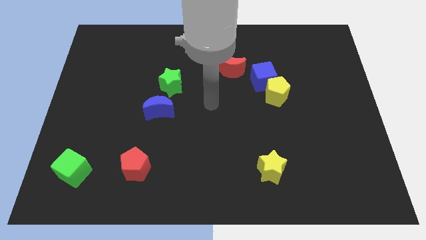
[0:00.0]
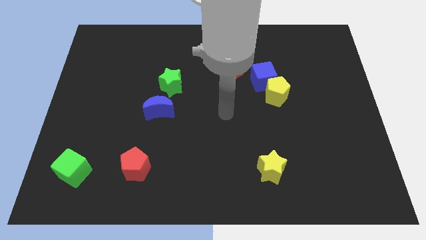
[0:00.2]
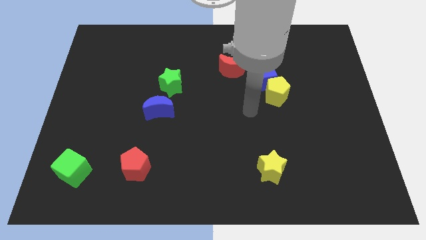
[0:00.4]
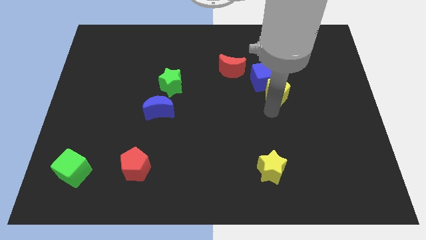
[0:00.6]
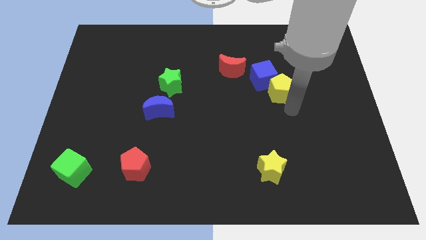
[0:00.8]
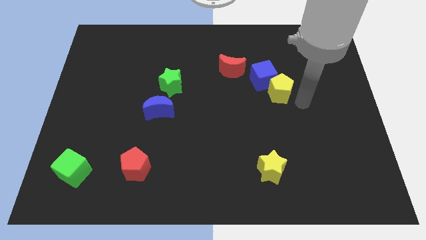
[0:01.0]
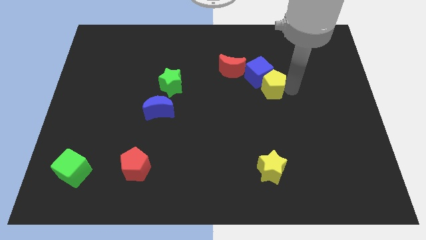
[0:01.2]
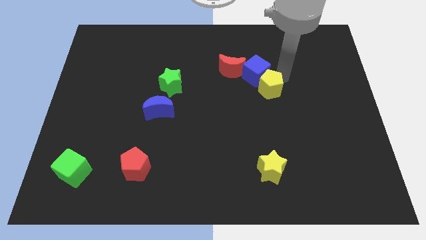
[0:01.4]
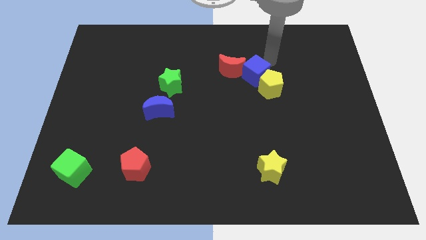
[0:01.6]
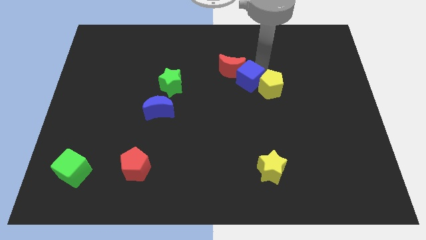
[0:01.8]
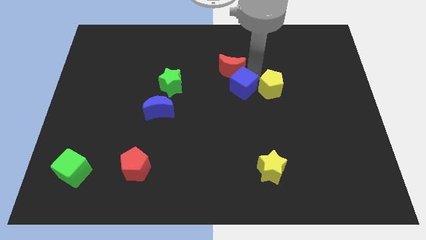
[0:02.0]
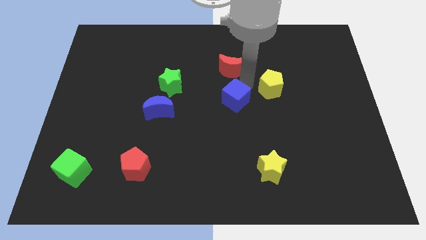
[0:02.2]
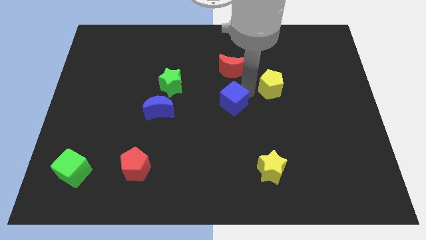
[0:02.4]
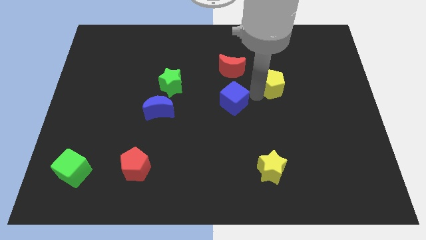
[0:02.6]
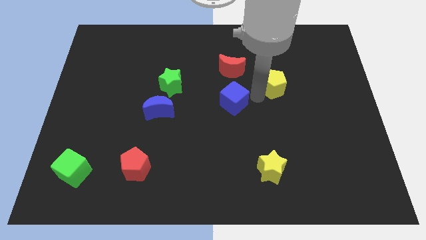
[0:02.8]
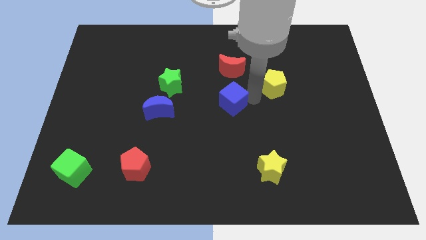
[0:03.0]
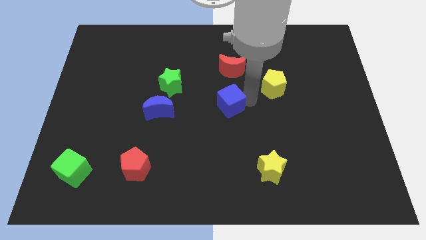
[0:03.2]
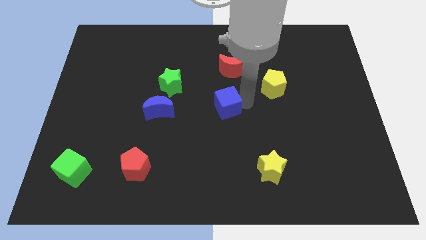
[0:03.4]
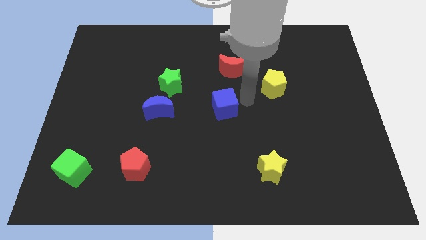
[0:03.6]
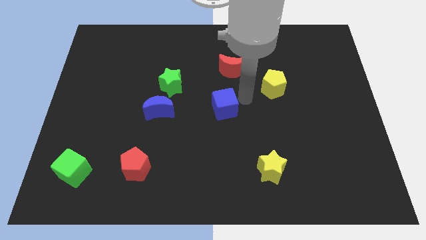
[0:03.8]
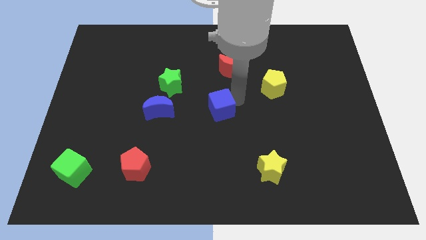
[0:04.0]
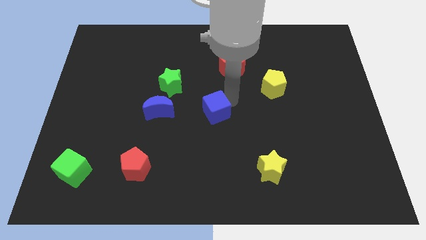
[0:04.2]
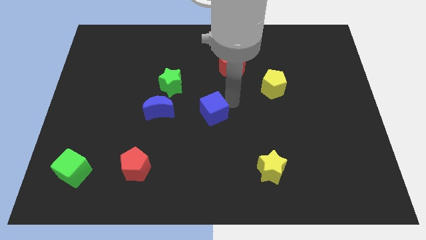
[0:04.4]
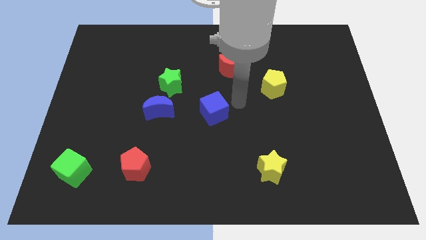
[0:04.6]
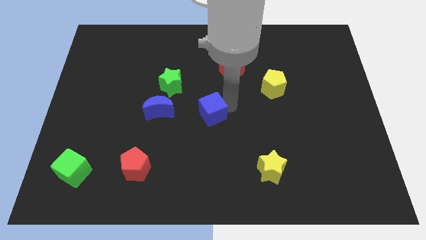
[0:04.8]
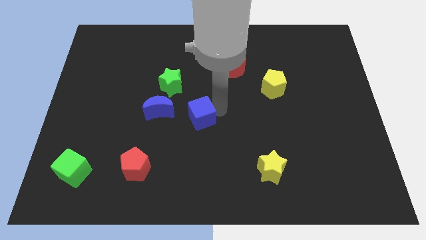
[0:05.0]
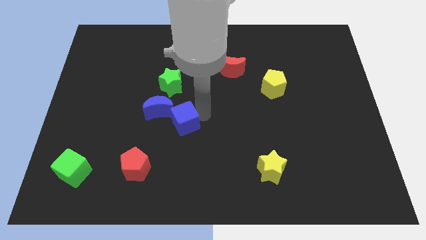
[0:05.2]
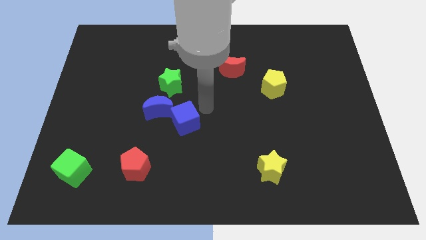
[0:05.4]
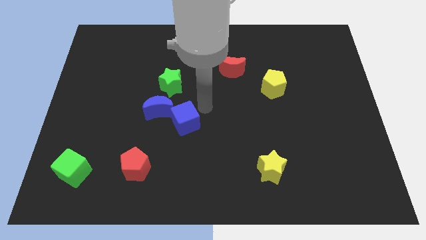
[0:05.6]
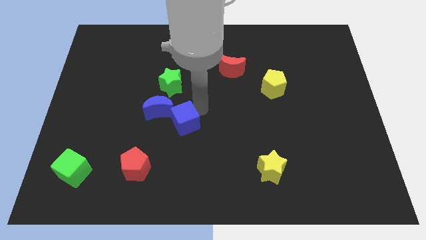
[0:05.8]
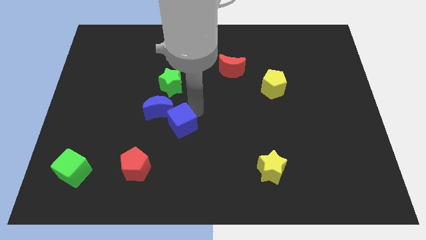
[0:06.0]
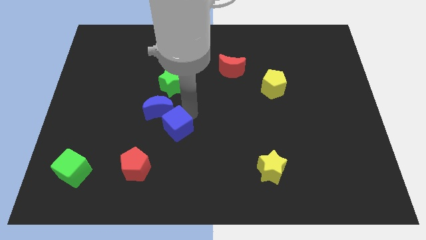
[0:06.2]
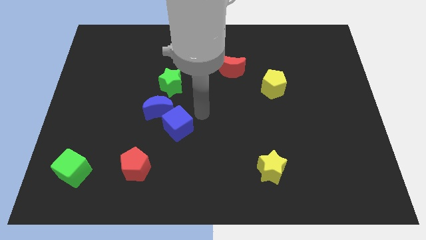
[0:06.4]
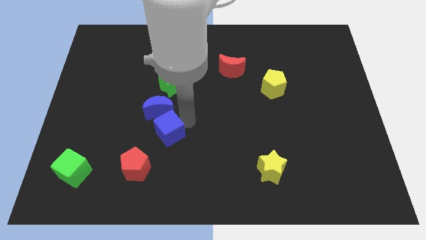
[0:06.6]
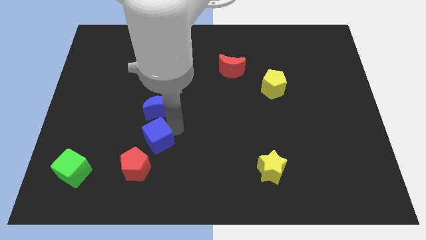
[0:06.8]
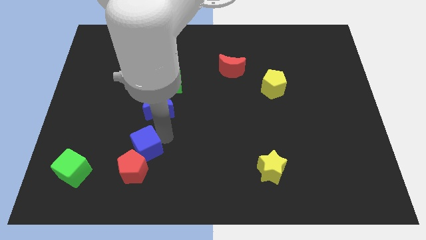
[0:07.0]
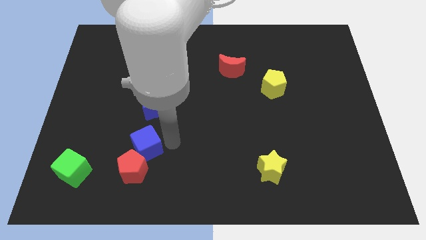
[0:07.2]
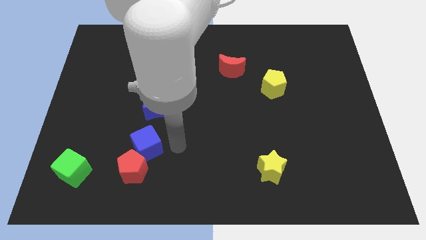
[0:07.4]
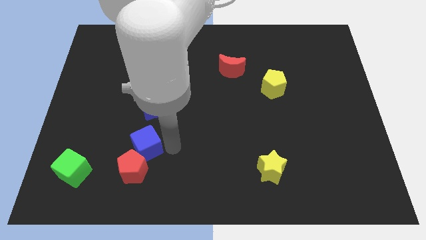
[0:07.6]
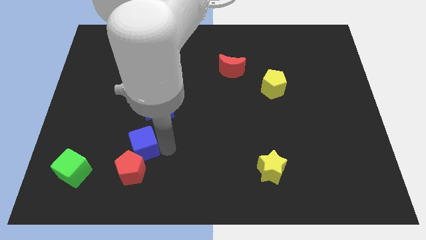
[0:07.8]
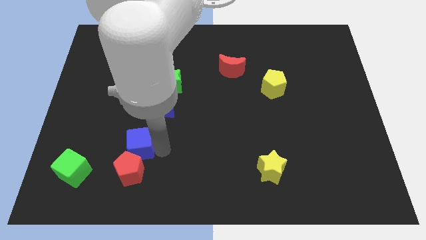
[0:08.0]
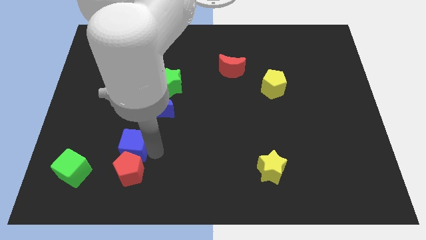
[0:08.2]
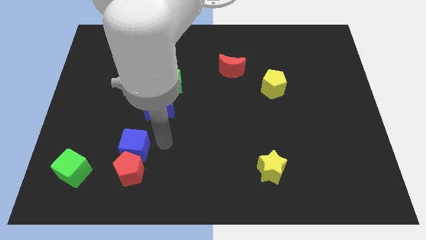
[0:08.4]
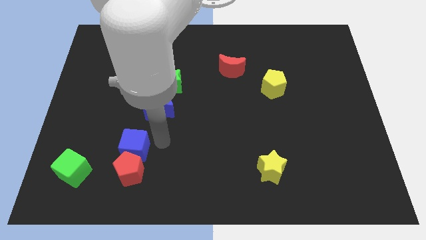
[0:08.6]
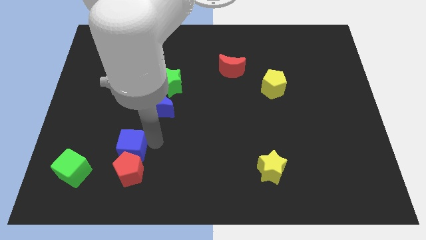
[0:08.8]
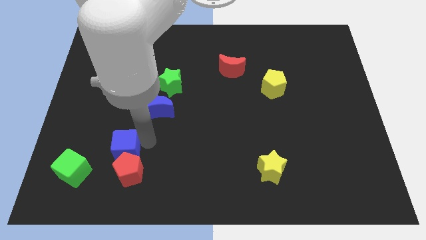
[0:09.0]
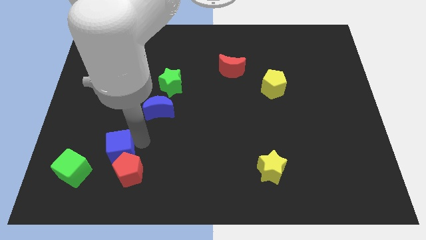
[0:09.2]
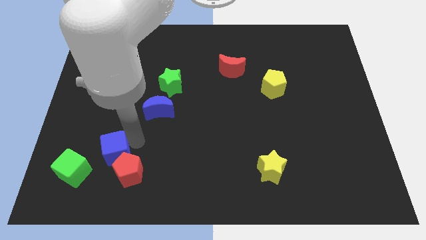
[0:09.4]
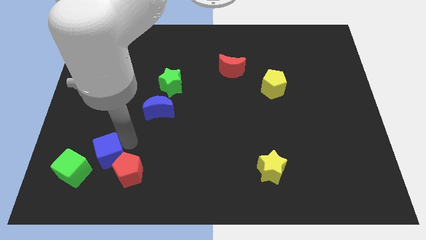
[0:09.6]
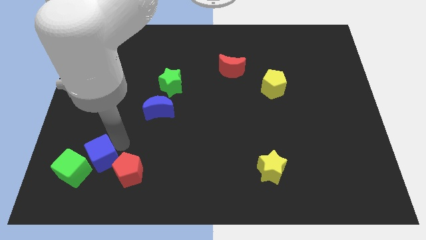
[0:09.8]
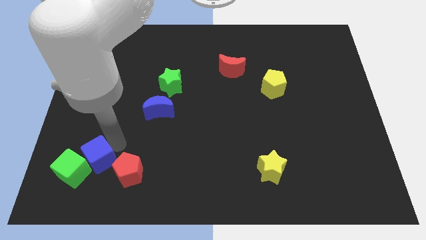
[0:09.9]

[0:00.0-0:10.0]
push the blue cube next to the green cube

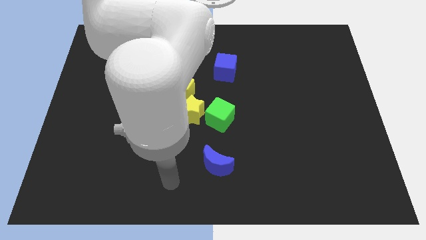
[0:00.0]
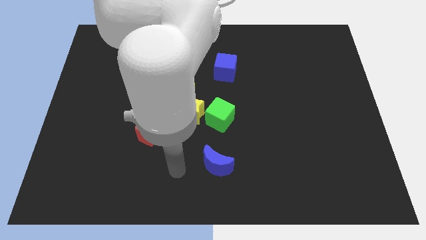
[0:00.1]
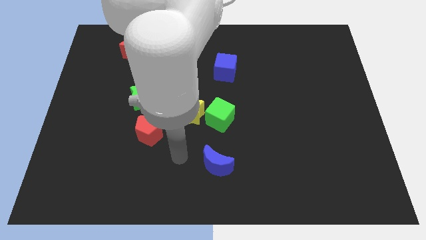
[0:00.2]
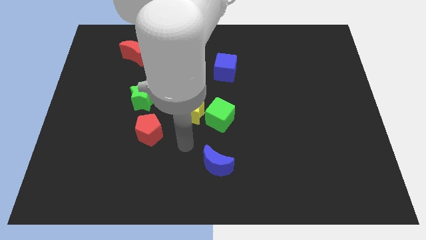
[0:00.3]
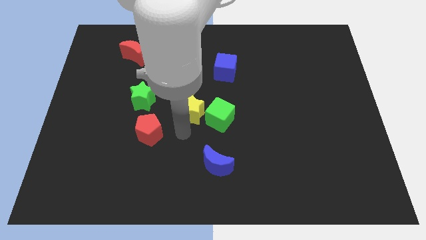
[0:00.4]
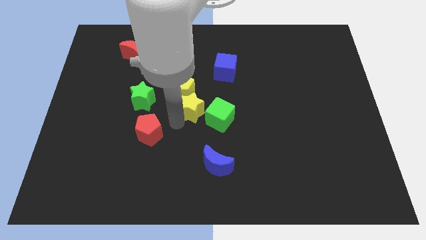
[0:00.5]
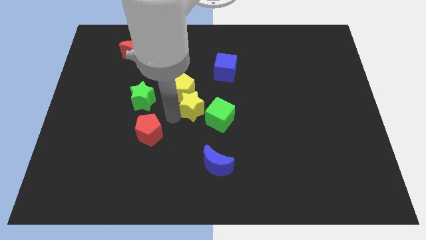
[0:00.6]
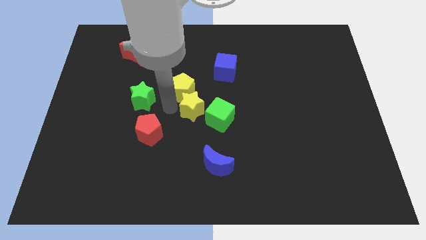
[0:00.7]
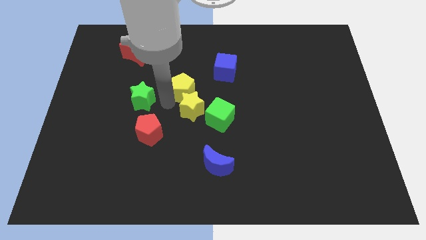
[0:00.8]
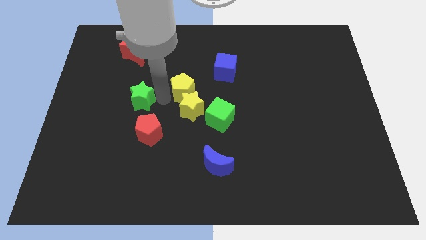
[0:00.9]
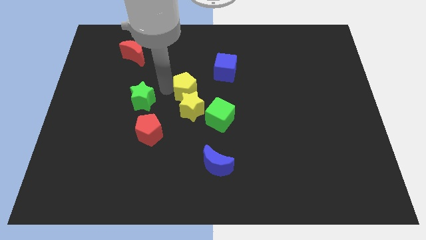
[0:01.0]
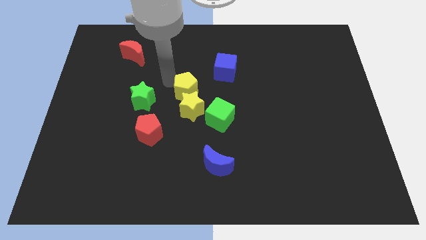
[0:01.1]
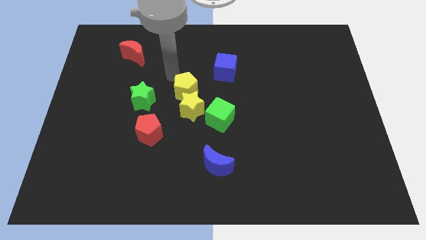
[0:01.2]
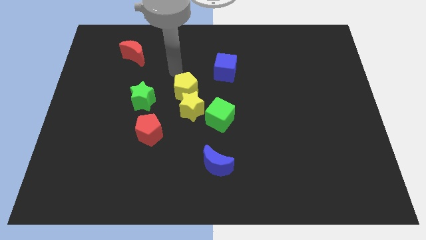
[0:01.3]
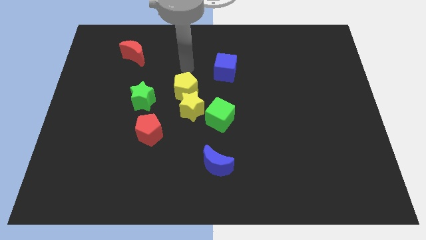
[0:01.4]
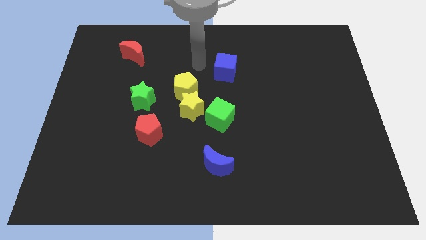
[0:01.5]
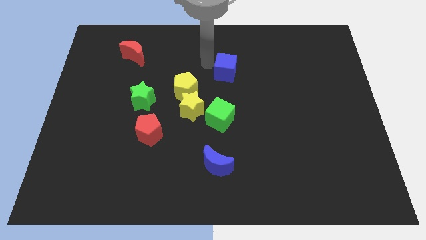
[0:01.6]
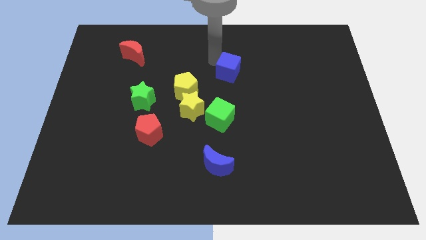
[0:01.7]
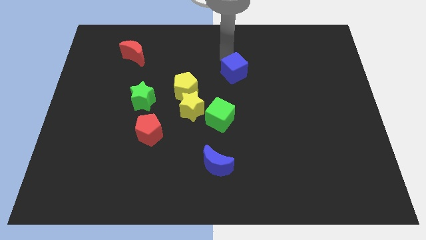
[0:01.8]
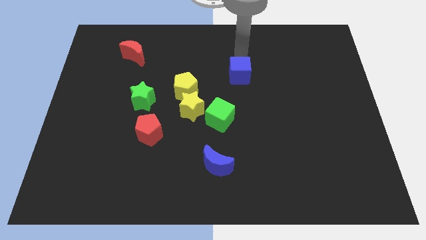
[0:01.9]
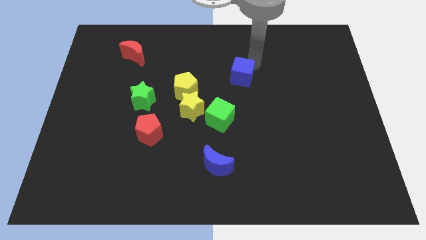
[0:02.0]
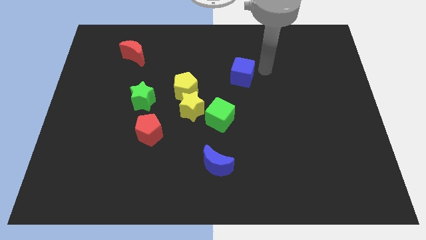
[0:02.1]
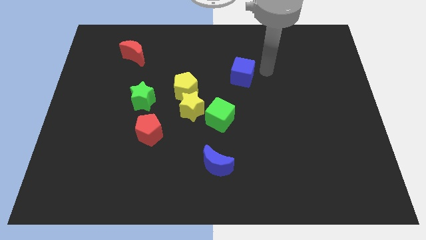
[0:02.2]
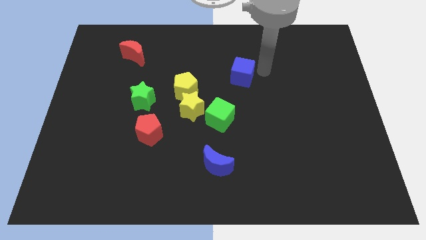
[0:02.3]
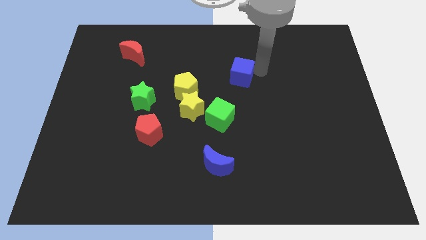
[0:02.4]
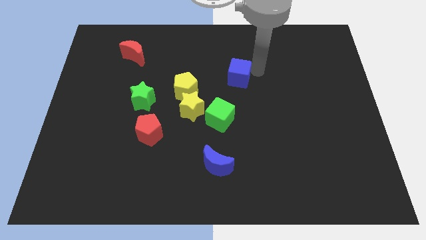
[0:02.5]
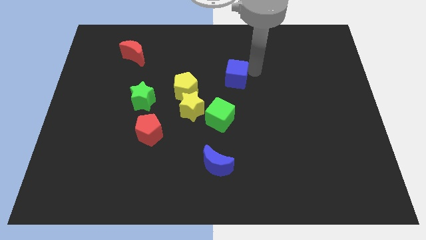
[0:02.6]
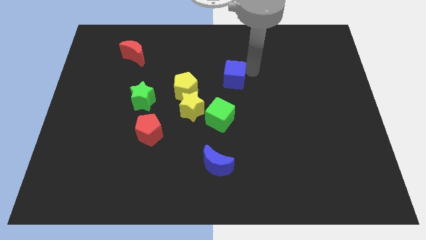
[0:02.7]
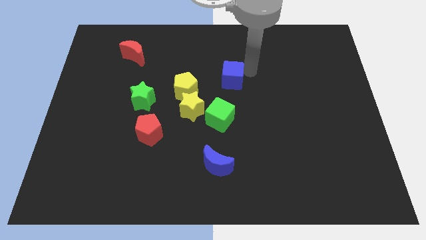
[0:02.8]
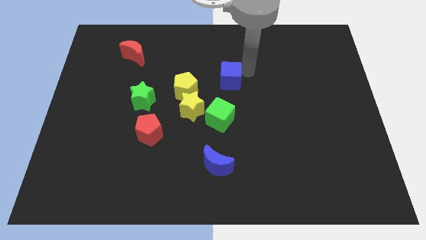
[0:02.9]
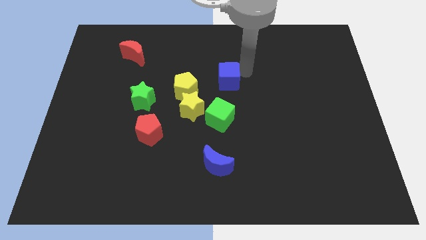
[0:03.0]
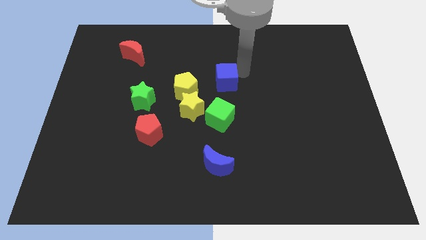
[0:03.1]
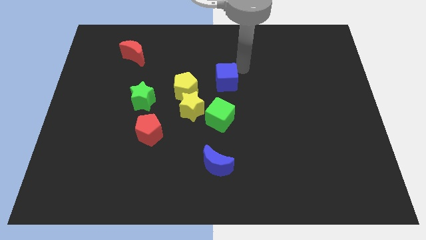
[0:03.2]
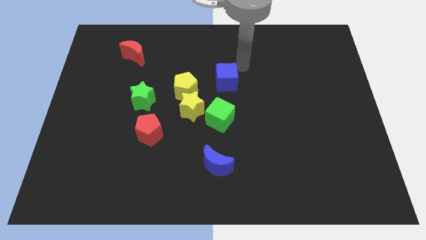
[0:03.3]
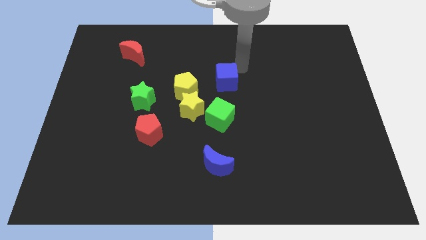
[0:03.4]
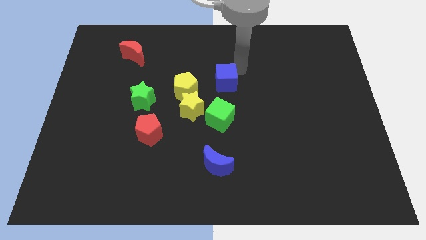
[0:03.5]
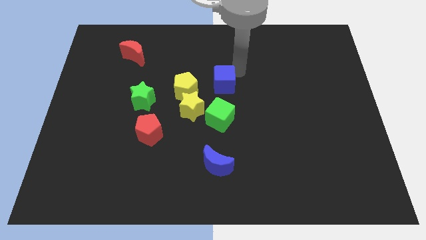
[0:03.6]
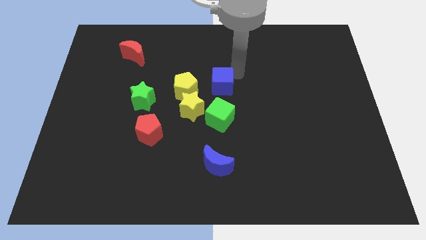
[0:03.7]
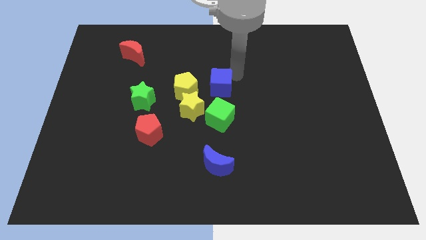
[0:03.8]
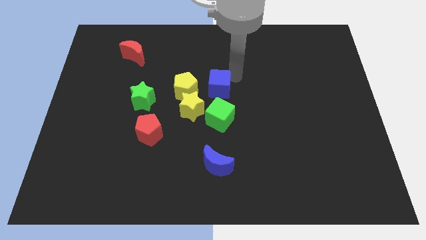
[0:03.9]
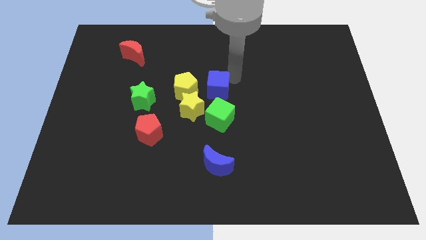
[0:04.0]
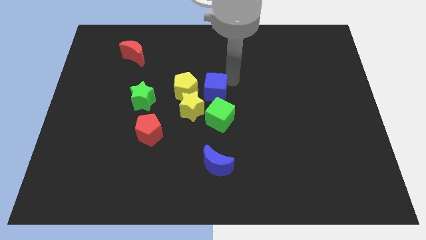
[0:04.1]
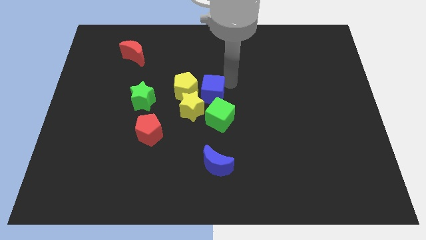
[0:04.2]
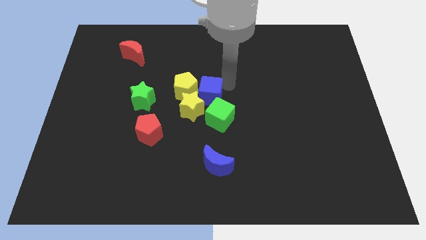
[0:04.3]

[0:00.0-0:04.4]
put the blue cube close to the yellow star
